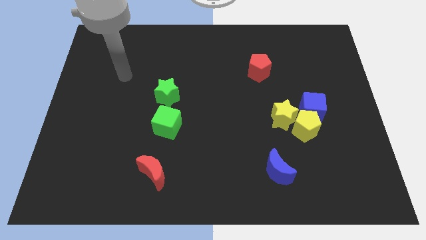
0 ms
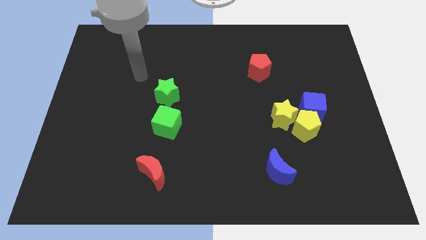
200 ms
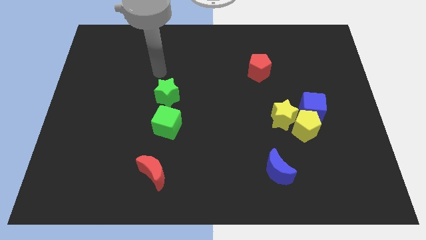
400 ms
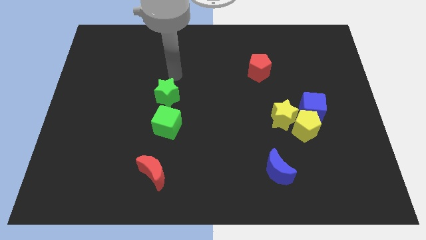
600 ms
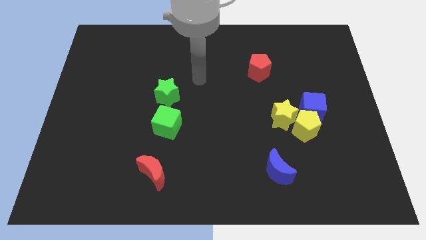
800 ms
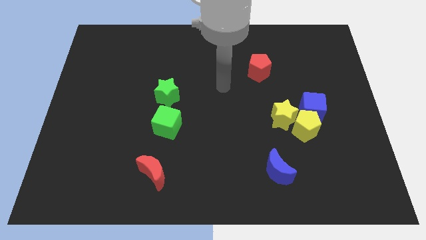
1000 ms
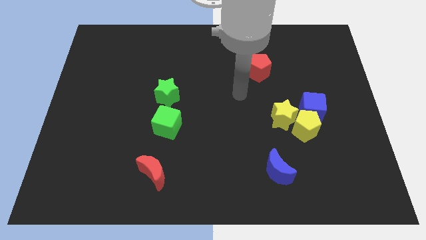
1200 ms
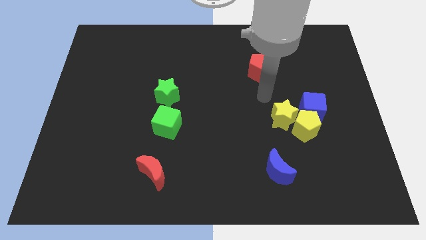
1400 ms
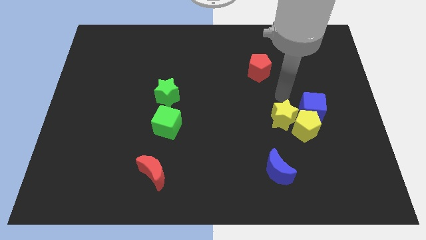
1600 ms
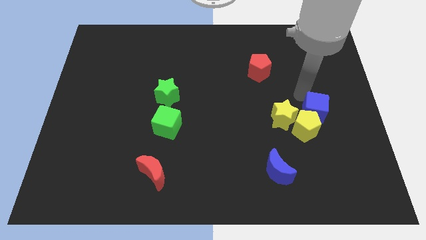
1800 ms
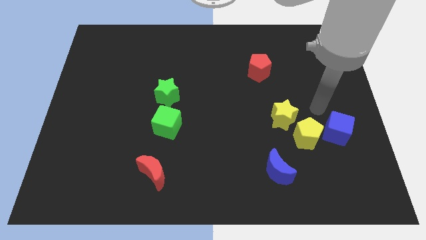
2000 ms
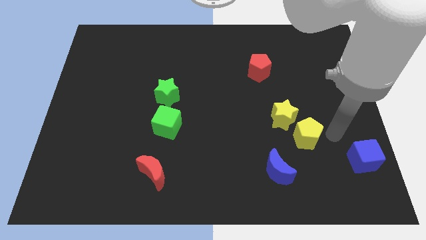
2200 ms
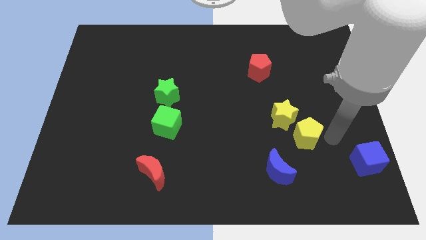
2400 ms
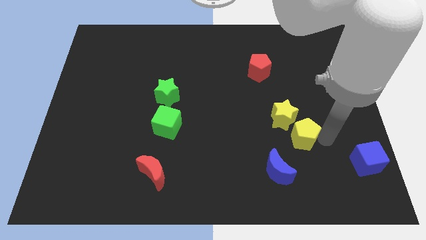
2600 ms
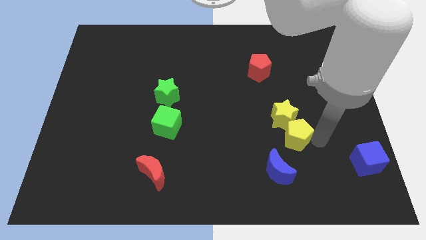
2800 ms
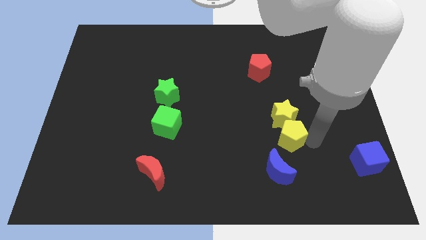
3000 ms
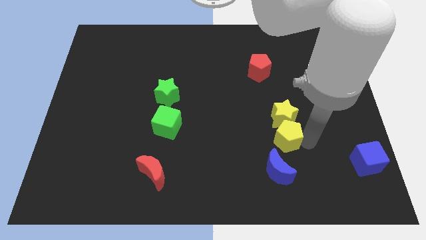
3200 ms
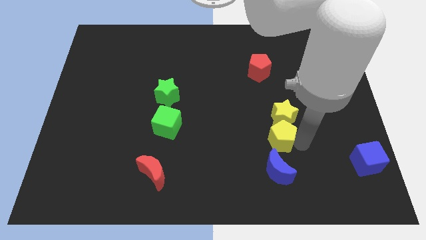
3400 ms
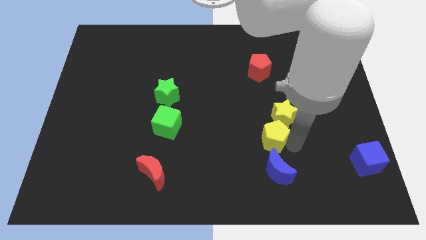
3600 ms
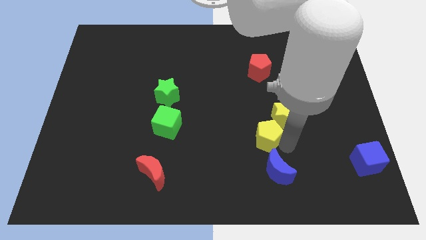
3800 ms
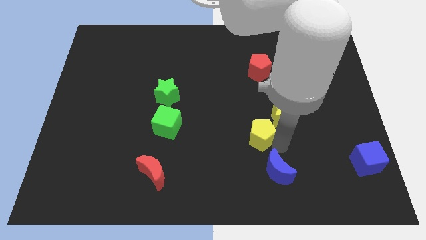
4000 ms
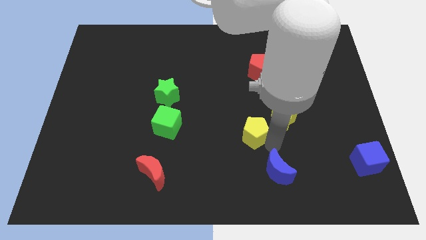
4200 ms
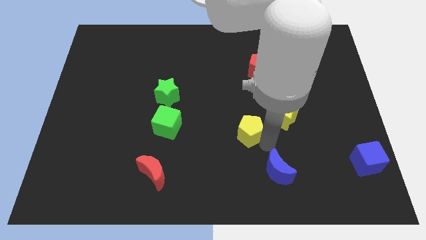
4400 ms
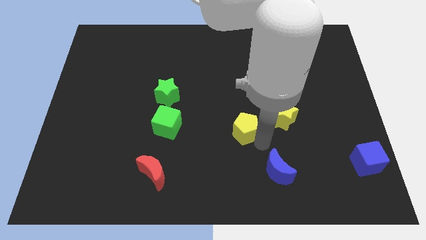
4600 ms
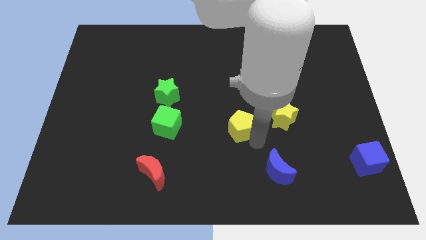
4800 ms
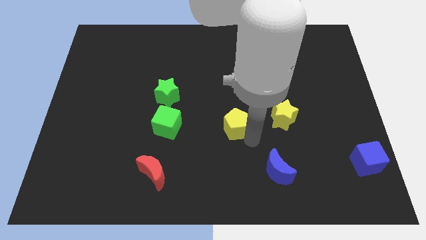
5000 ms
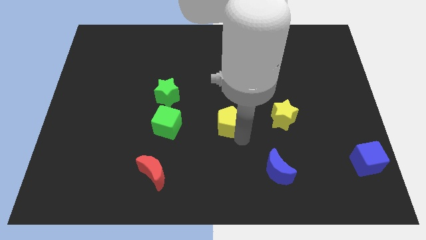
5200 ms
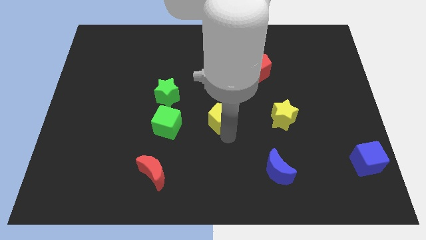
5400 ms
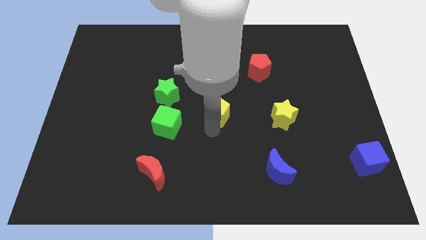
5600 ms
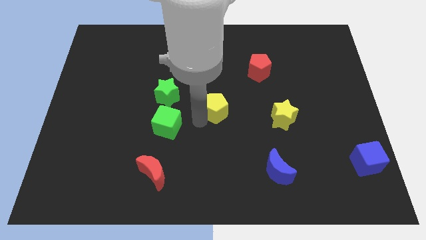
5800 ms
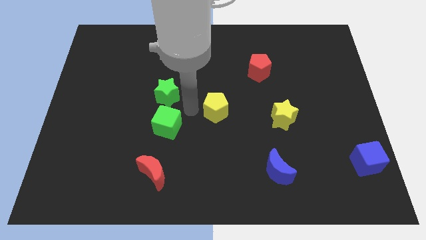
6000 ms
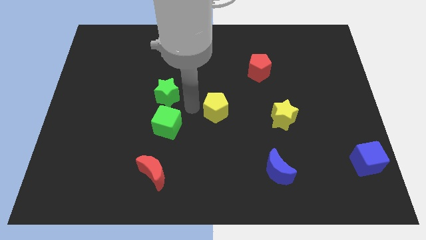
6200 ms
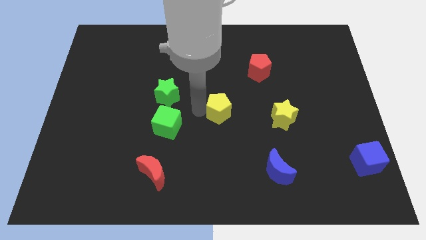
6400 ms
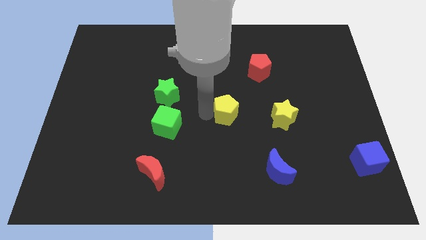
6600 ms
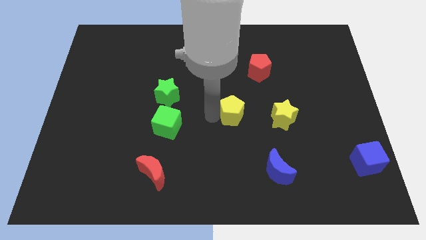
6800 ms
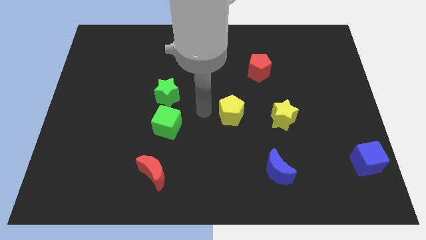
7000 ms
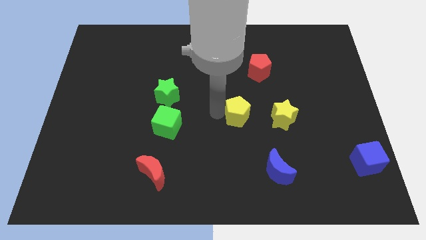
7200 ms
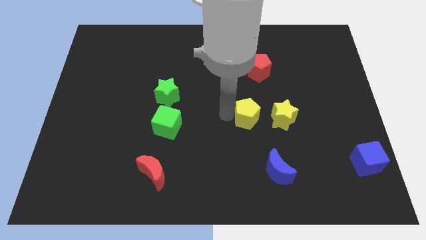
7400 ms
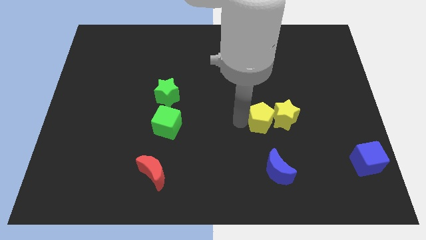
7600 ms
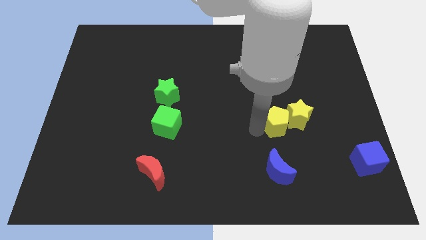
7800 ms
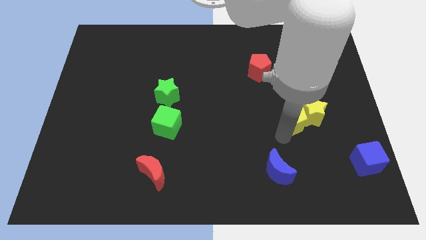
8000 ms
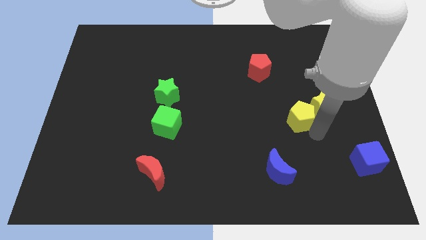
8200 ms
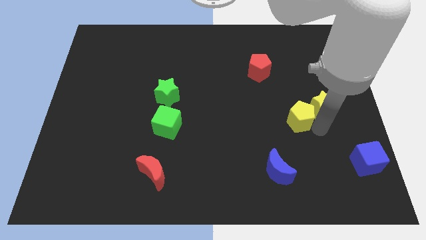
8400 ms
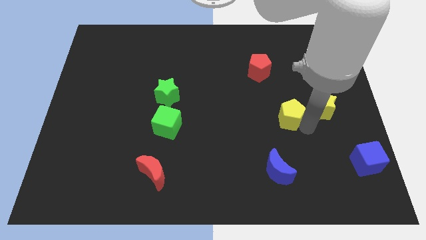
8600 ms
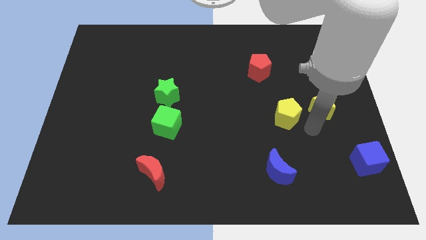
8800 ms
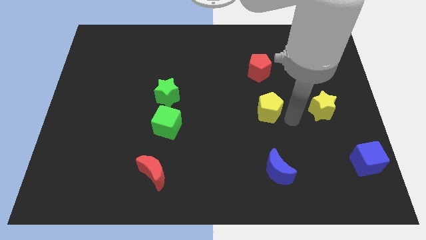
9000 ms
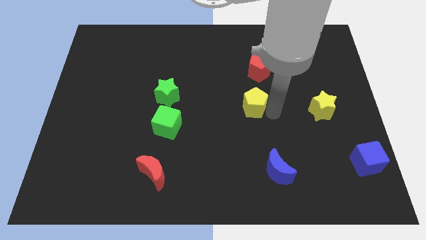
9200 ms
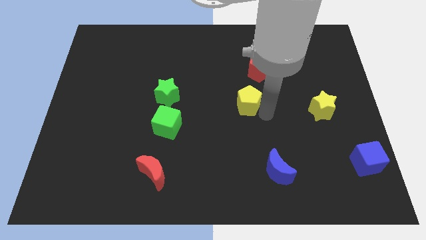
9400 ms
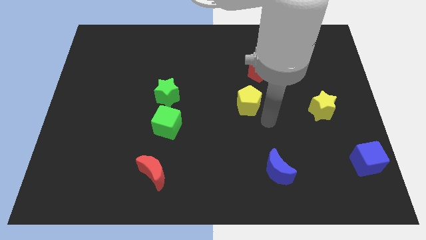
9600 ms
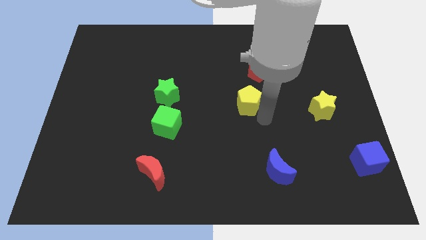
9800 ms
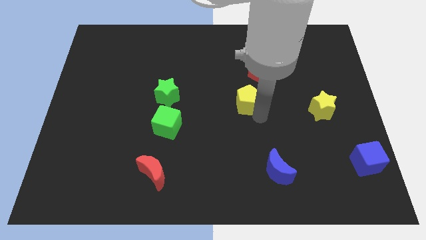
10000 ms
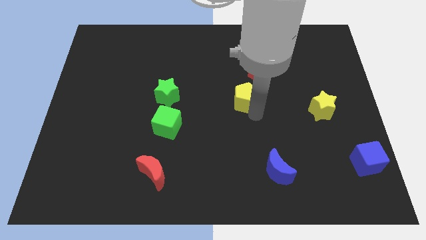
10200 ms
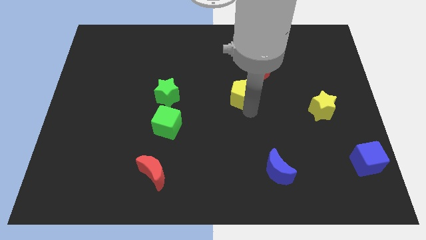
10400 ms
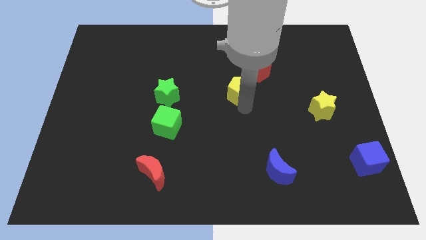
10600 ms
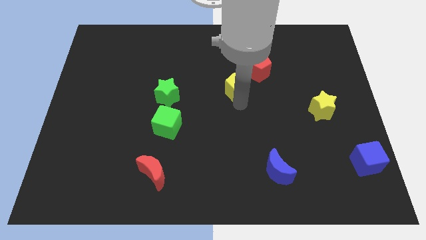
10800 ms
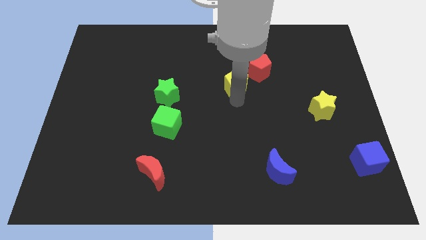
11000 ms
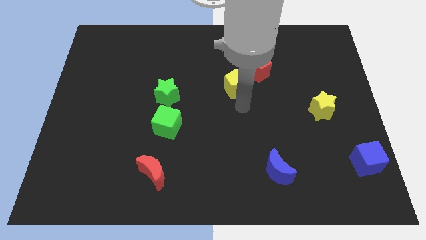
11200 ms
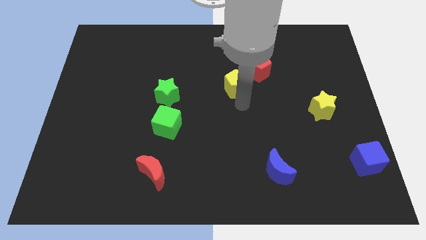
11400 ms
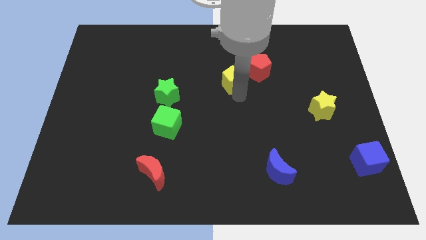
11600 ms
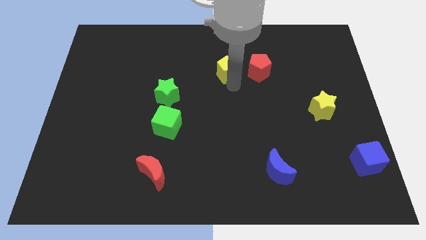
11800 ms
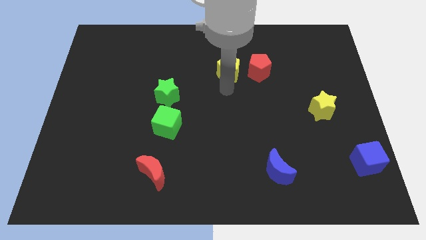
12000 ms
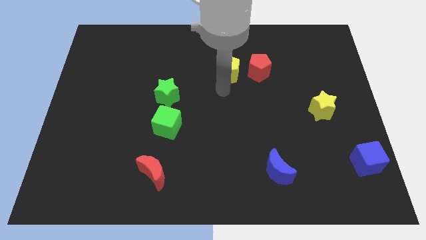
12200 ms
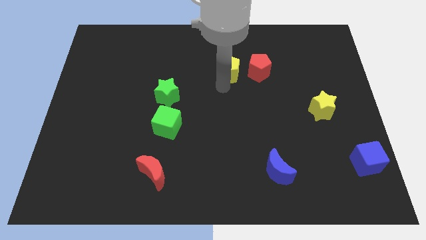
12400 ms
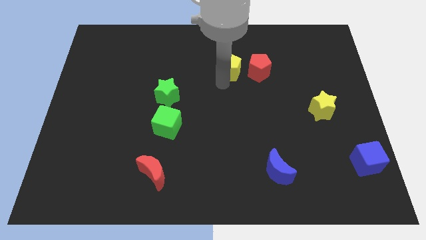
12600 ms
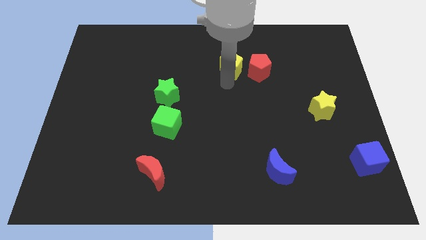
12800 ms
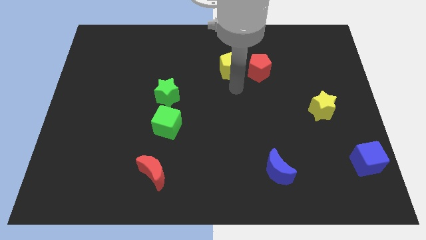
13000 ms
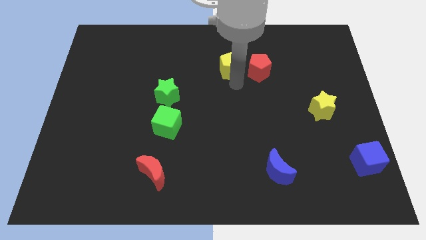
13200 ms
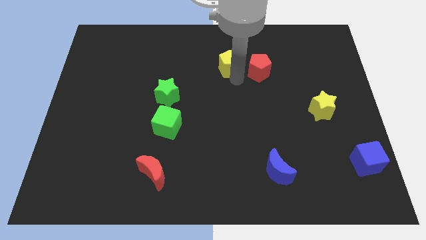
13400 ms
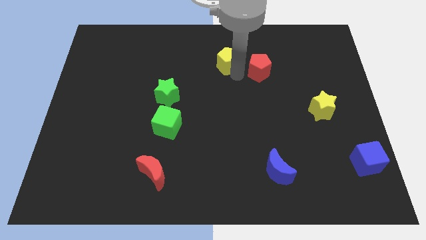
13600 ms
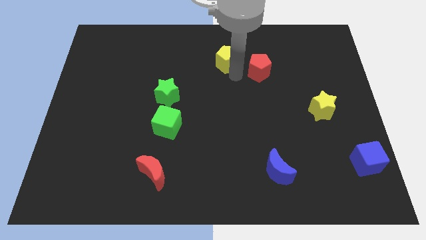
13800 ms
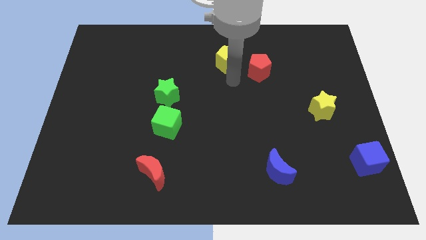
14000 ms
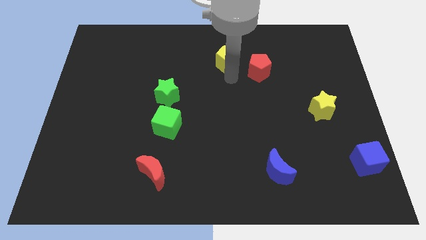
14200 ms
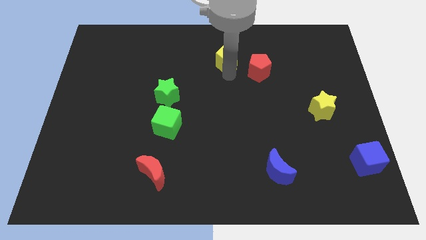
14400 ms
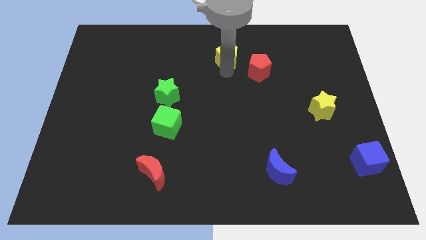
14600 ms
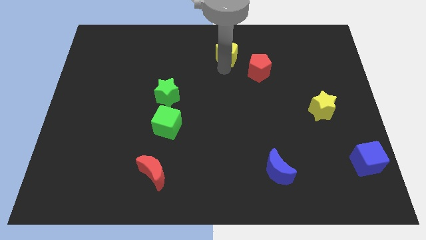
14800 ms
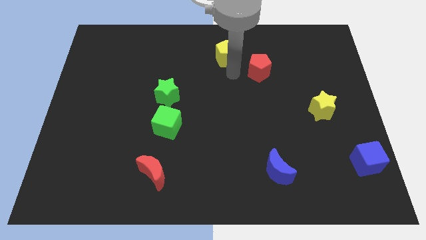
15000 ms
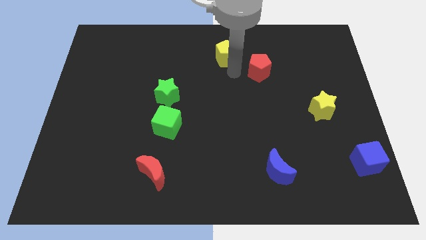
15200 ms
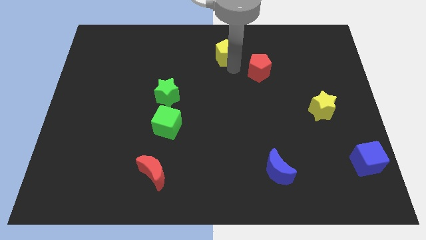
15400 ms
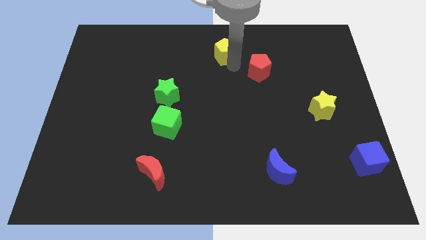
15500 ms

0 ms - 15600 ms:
move the yellow pentagon to the top side
